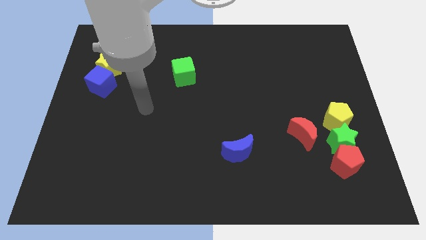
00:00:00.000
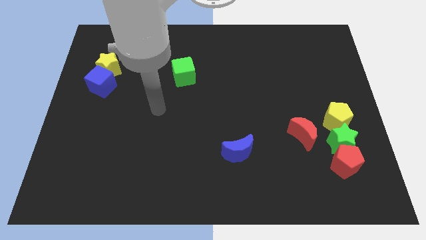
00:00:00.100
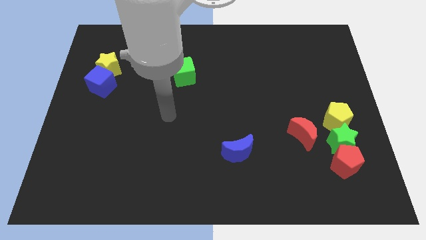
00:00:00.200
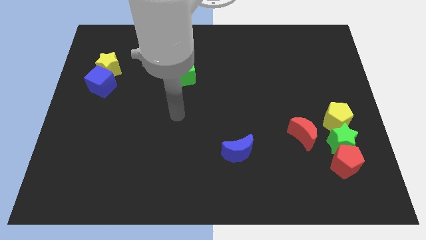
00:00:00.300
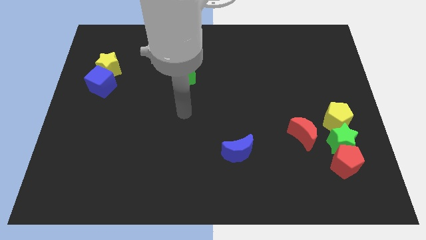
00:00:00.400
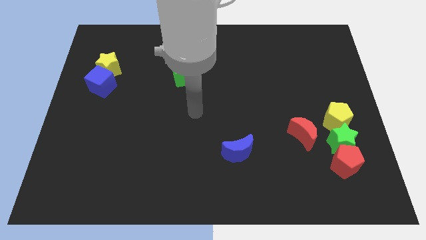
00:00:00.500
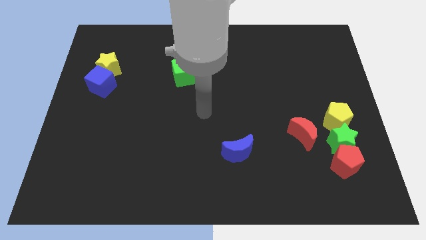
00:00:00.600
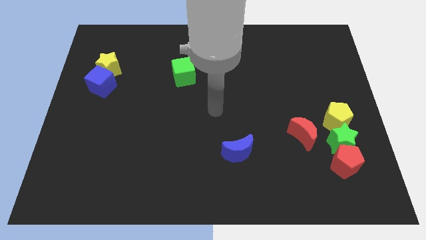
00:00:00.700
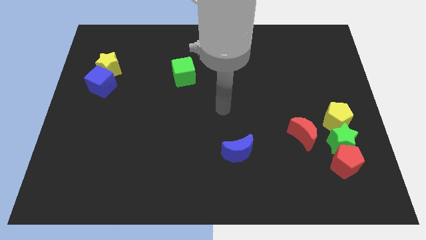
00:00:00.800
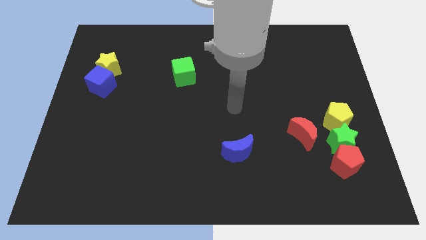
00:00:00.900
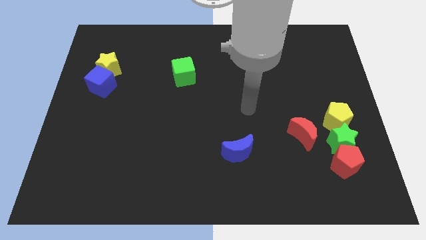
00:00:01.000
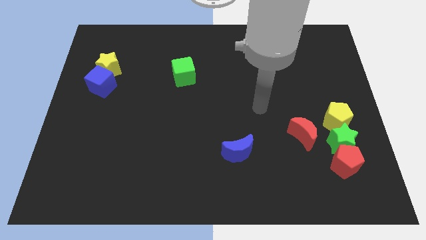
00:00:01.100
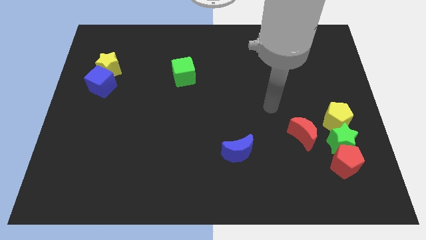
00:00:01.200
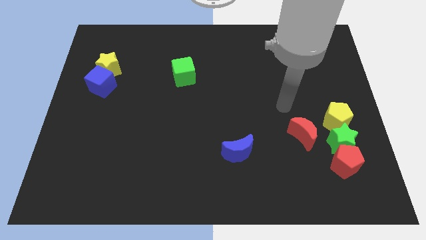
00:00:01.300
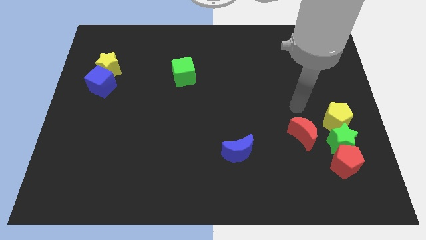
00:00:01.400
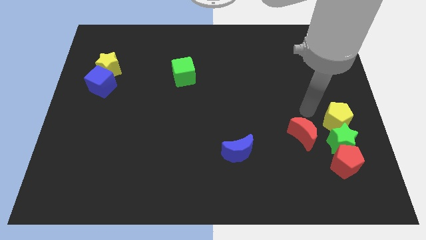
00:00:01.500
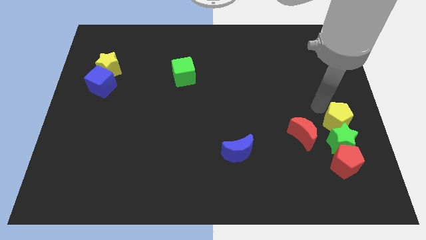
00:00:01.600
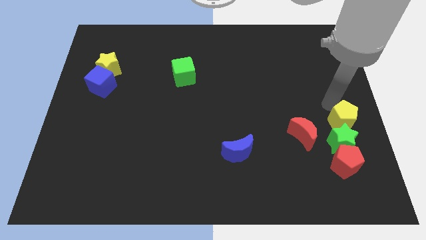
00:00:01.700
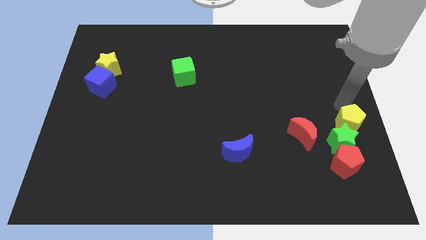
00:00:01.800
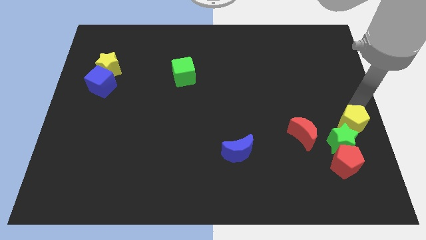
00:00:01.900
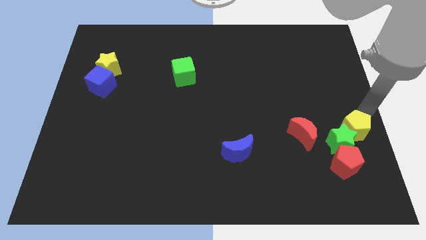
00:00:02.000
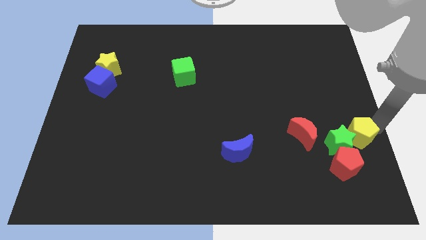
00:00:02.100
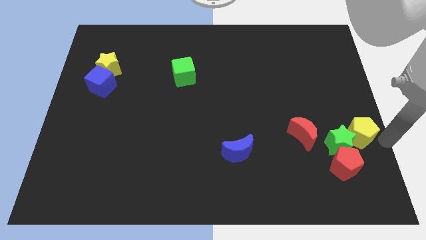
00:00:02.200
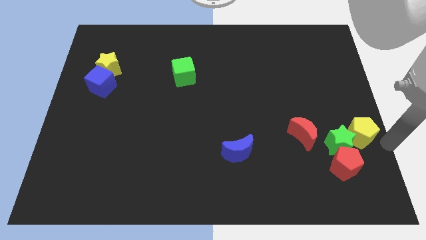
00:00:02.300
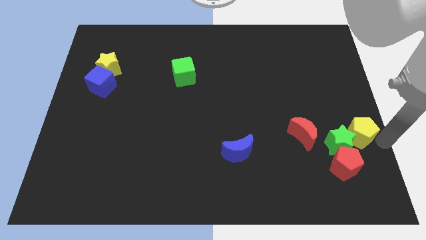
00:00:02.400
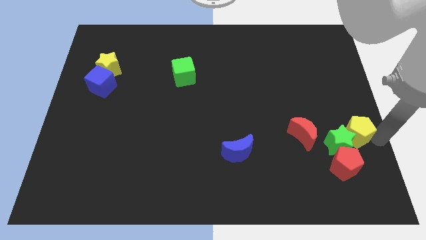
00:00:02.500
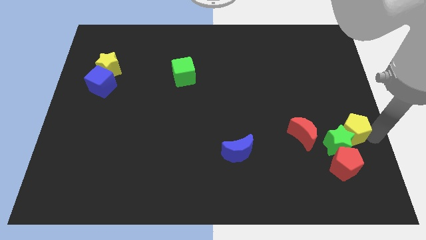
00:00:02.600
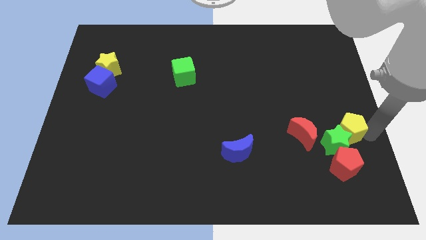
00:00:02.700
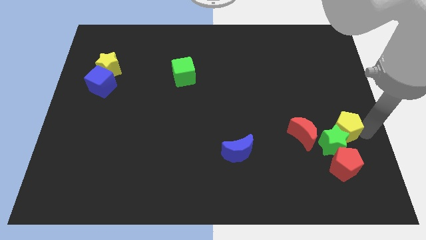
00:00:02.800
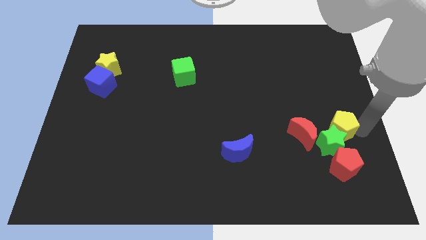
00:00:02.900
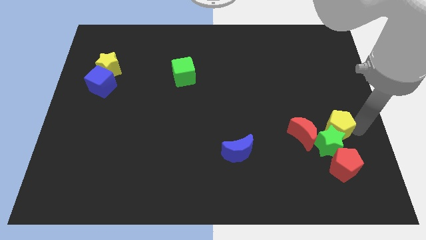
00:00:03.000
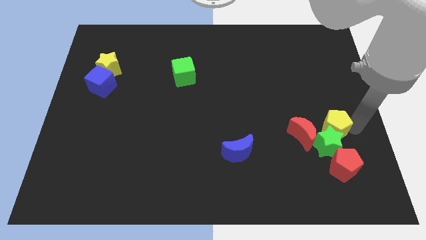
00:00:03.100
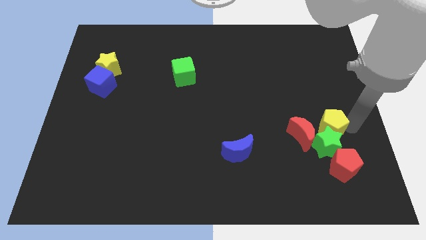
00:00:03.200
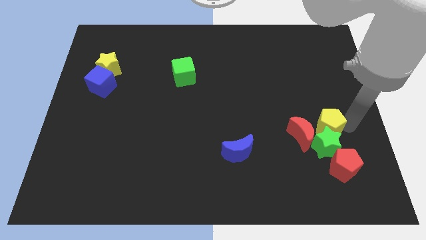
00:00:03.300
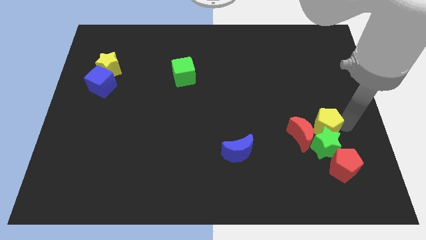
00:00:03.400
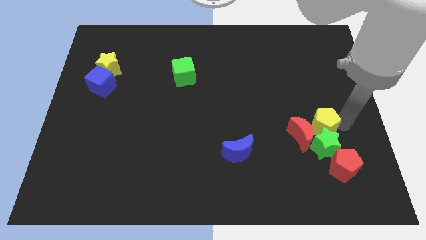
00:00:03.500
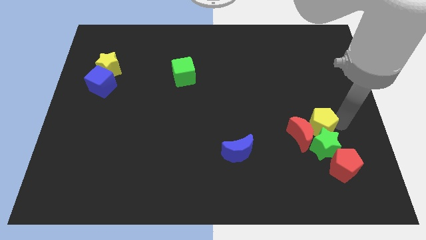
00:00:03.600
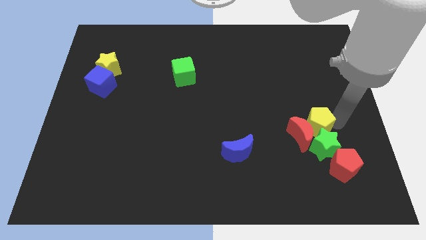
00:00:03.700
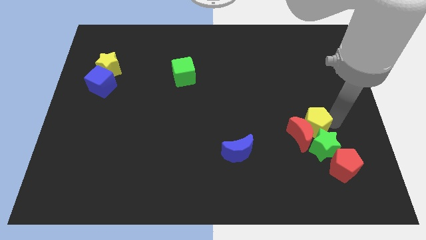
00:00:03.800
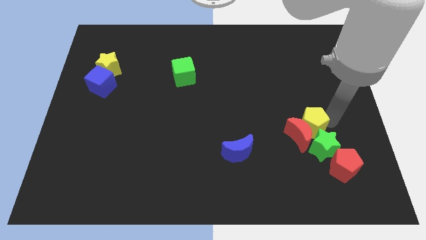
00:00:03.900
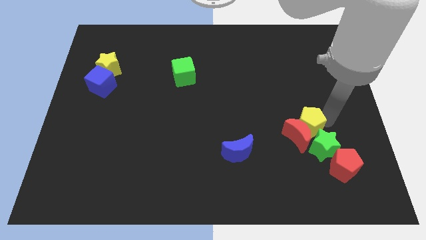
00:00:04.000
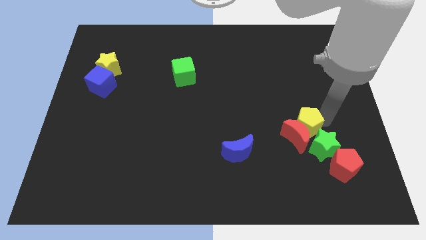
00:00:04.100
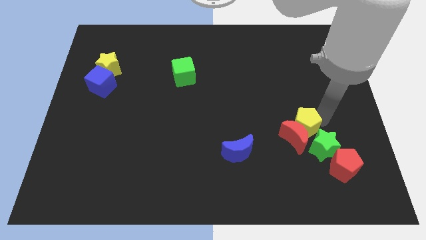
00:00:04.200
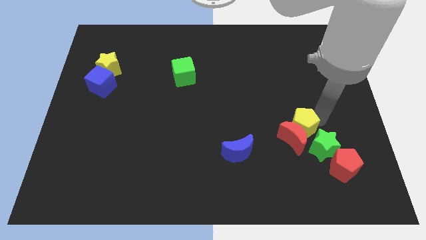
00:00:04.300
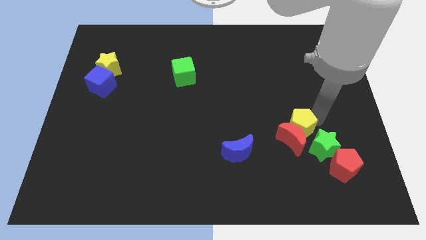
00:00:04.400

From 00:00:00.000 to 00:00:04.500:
slide the yellow pentagon somewhat down and to the left diagonally

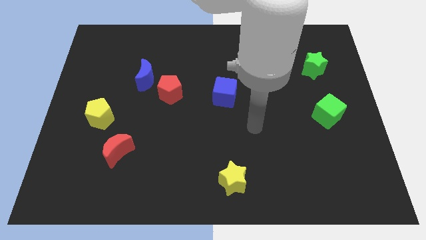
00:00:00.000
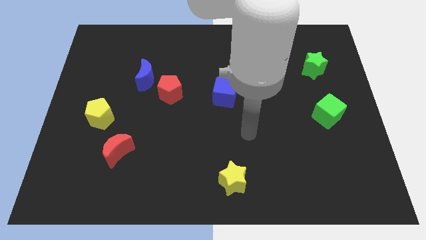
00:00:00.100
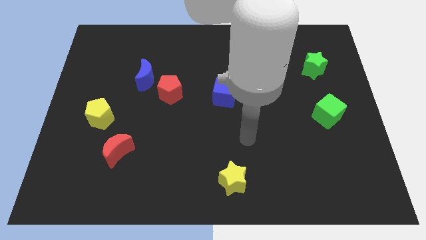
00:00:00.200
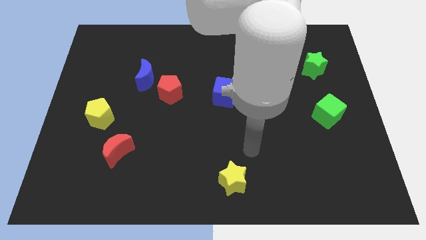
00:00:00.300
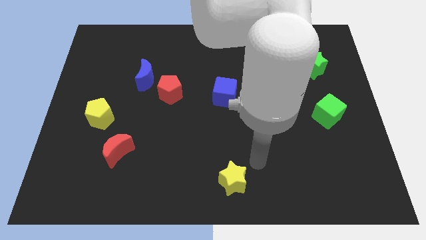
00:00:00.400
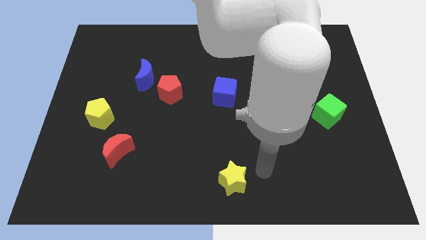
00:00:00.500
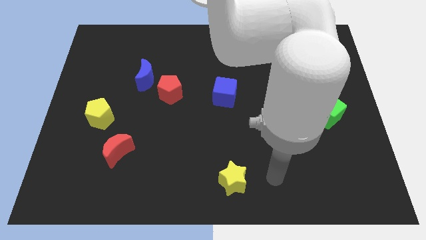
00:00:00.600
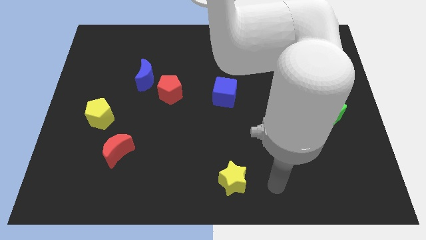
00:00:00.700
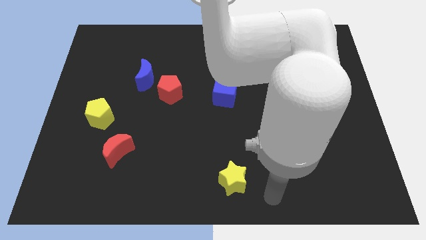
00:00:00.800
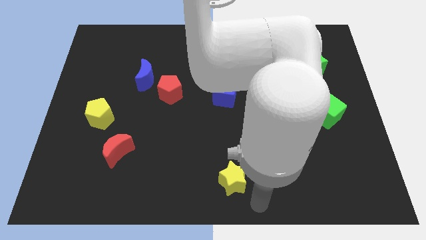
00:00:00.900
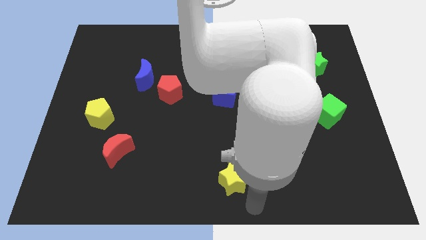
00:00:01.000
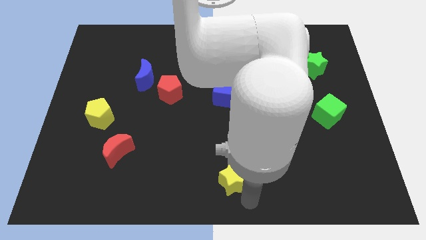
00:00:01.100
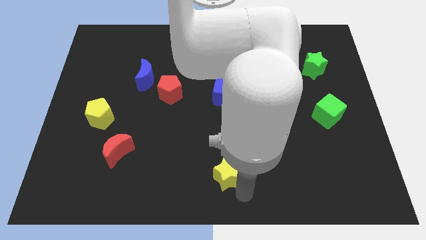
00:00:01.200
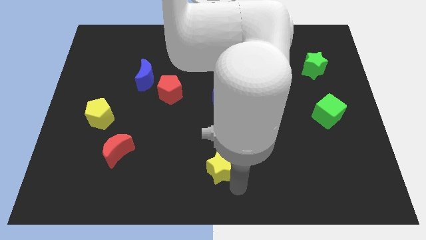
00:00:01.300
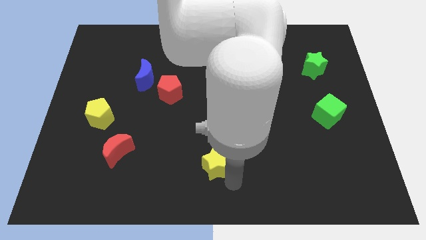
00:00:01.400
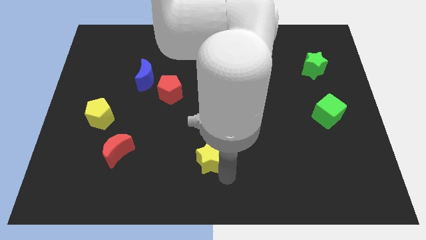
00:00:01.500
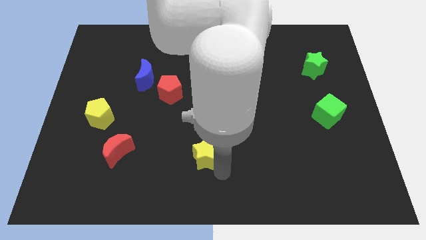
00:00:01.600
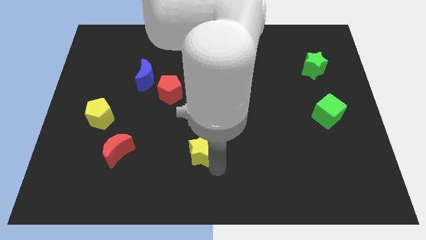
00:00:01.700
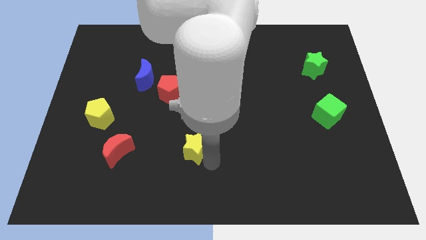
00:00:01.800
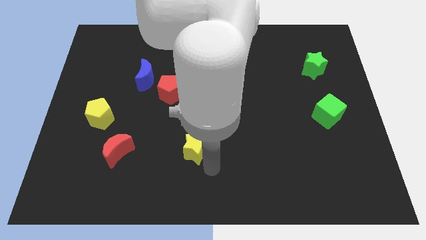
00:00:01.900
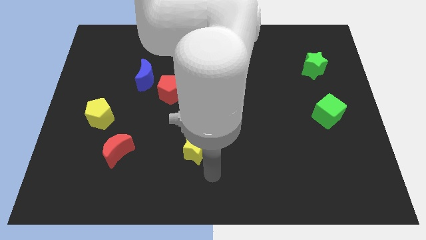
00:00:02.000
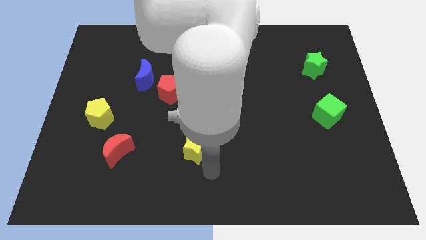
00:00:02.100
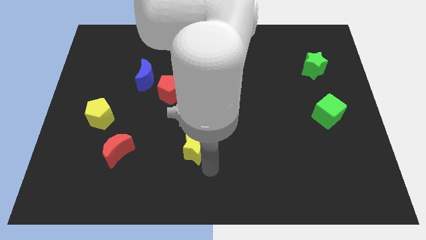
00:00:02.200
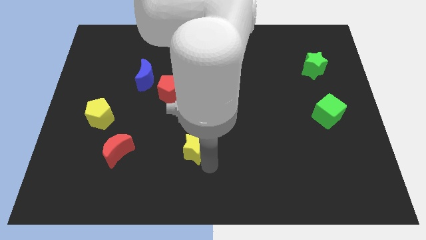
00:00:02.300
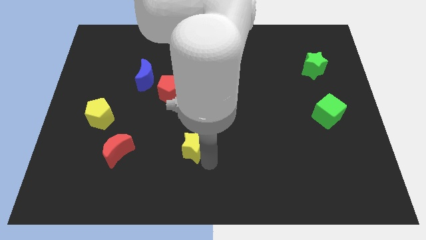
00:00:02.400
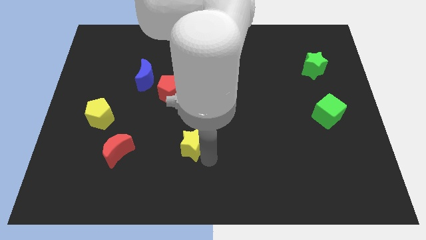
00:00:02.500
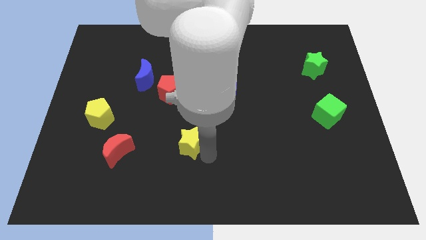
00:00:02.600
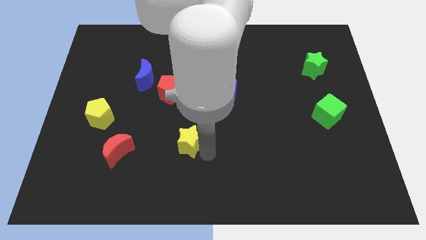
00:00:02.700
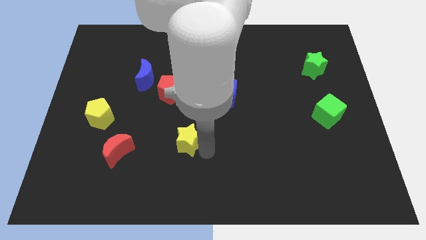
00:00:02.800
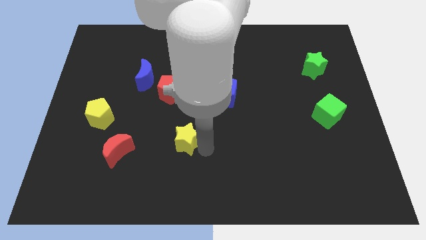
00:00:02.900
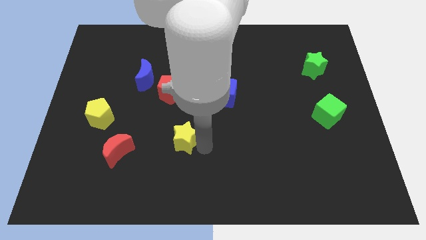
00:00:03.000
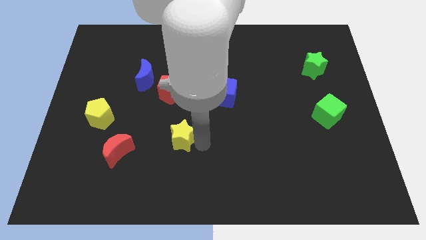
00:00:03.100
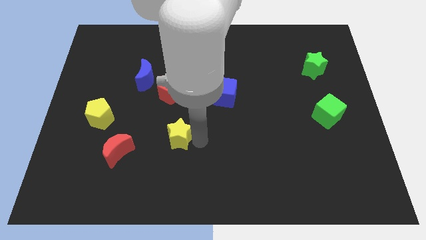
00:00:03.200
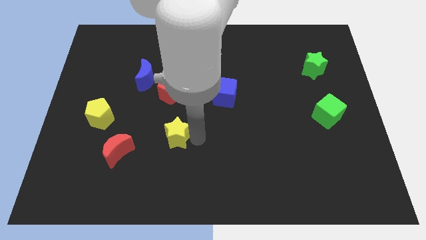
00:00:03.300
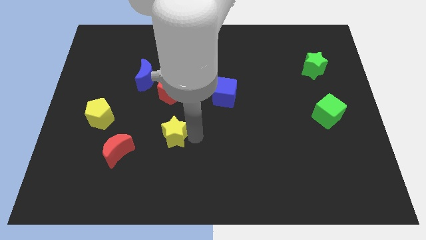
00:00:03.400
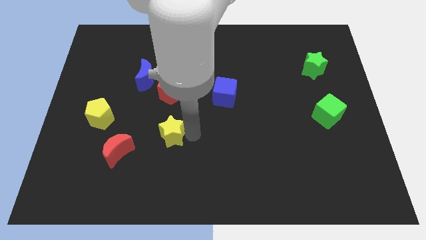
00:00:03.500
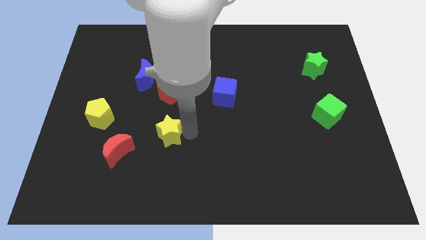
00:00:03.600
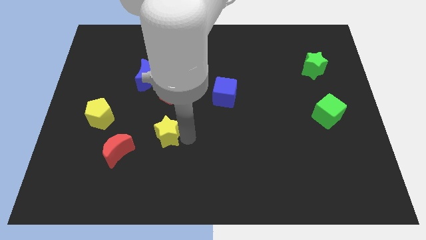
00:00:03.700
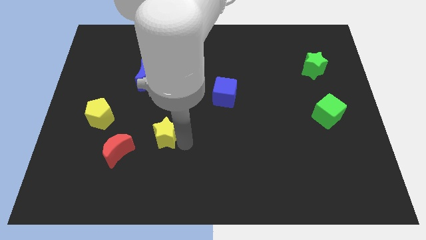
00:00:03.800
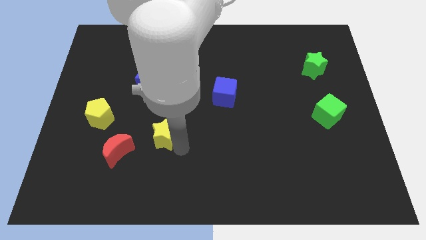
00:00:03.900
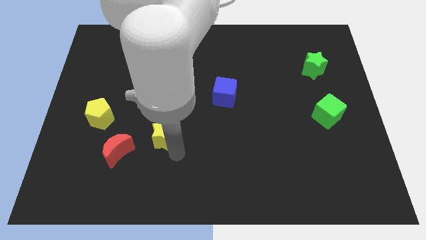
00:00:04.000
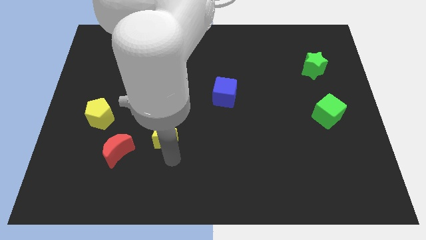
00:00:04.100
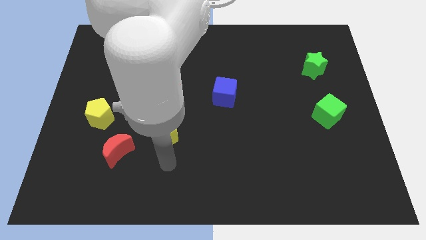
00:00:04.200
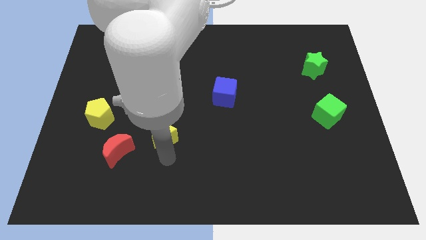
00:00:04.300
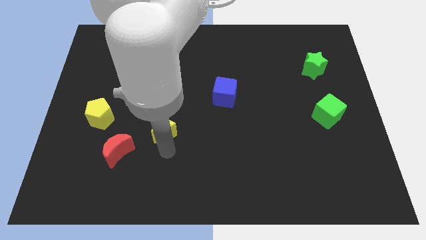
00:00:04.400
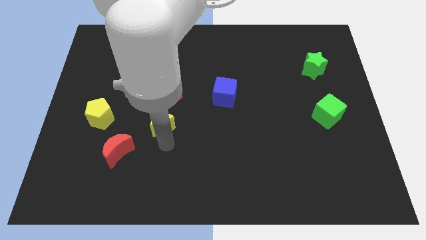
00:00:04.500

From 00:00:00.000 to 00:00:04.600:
move the yellow star diagonally up and left
